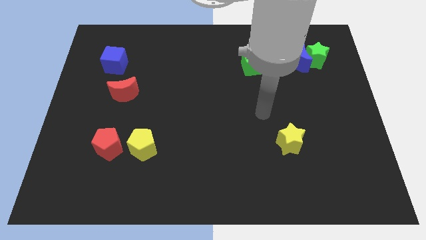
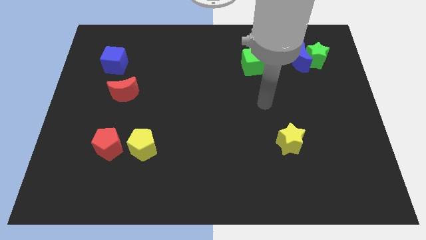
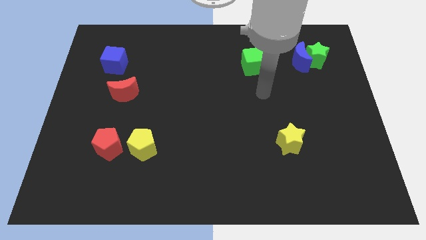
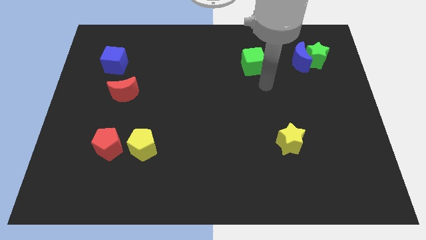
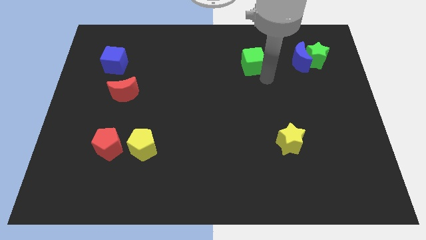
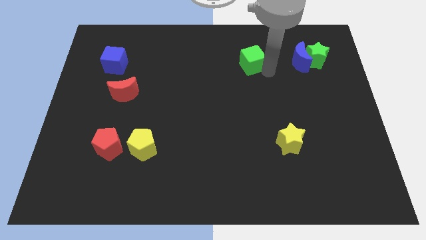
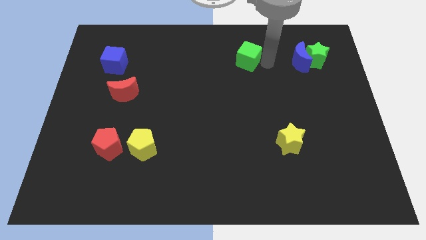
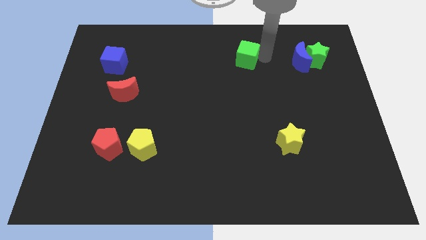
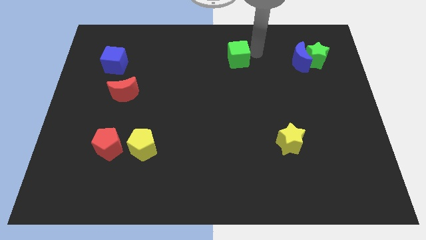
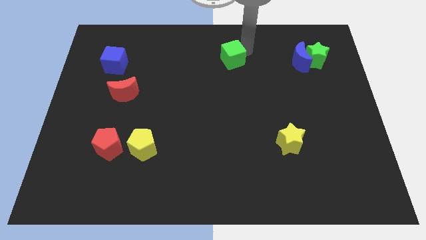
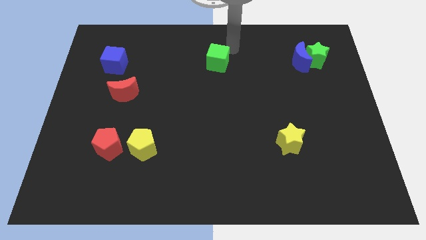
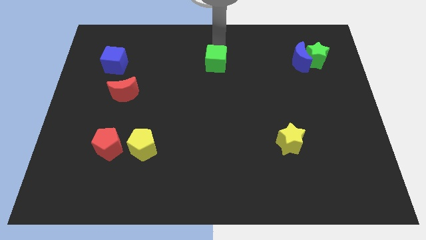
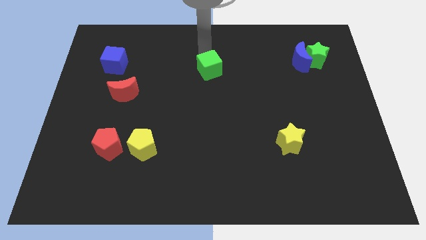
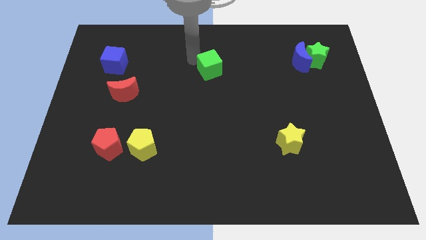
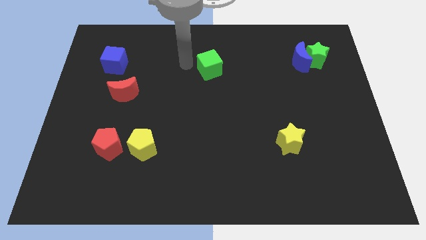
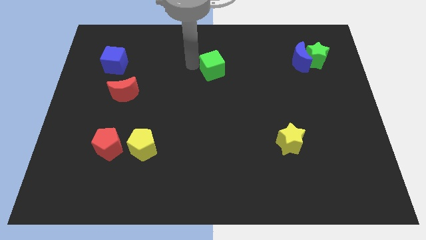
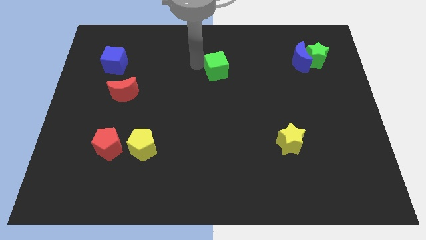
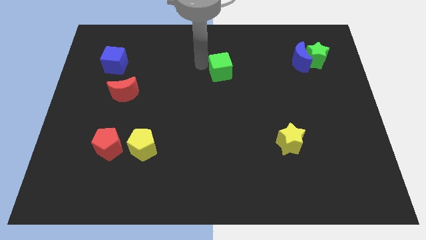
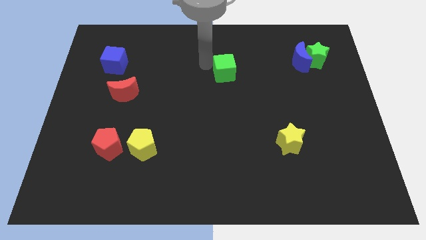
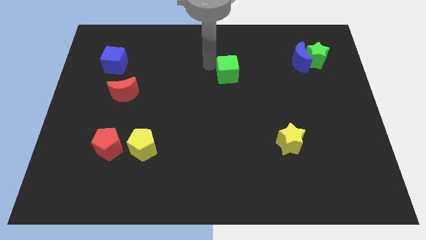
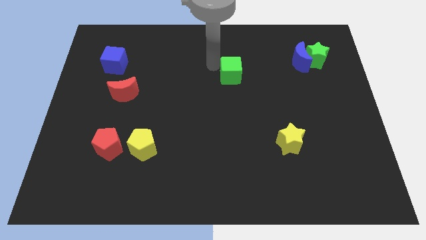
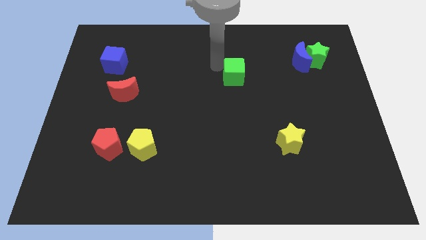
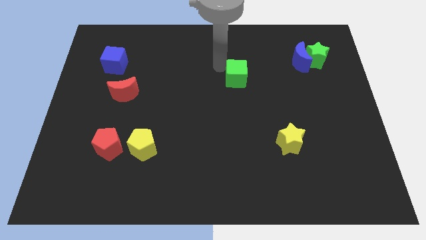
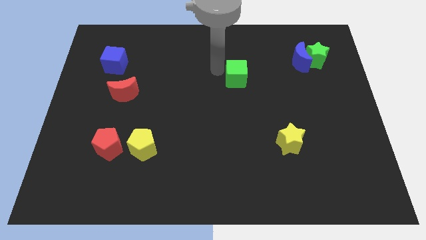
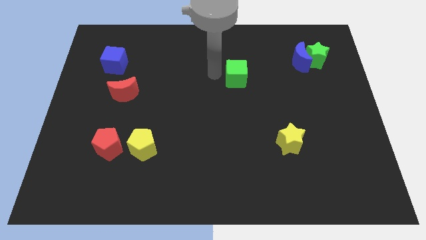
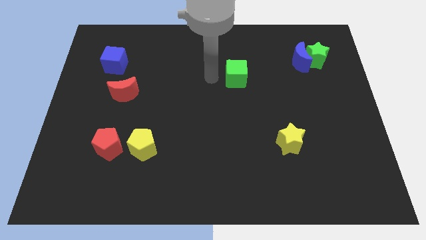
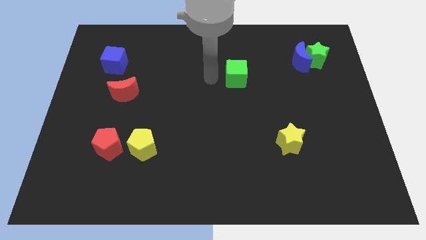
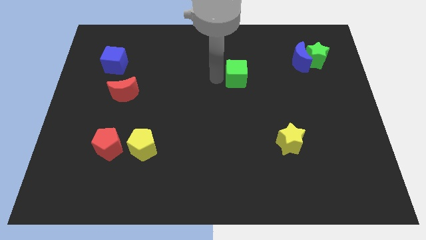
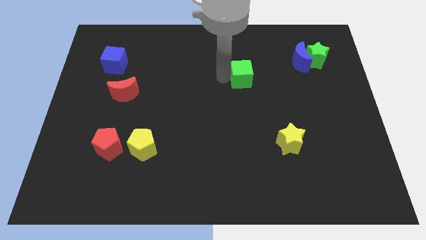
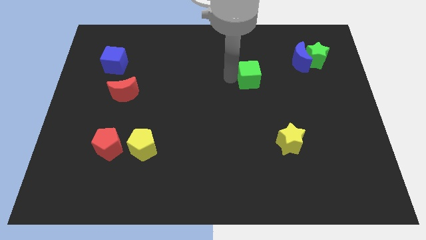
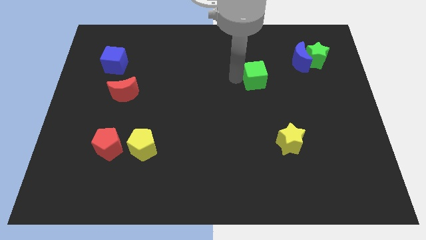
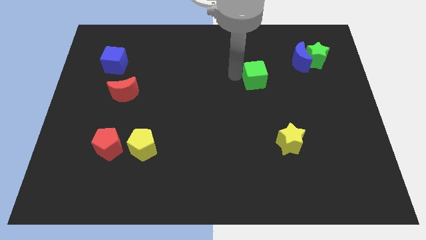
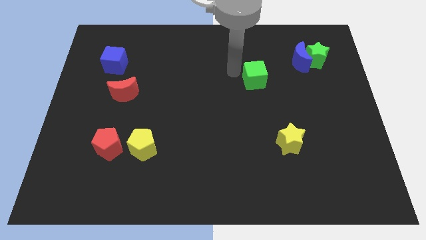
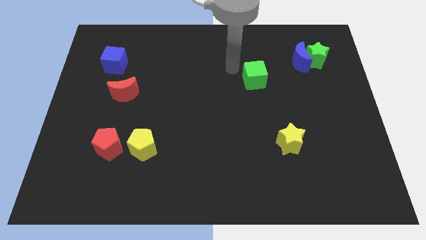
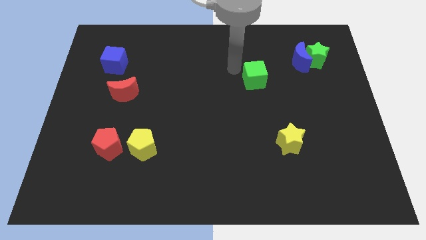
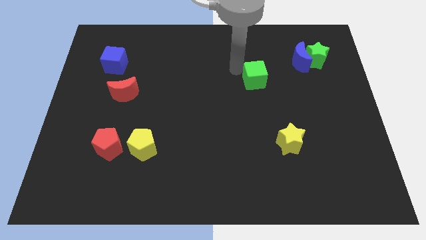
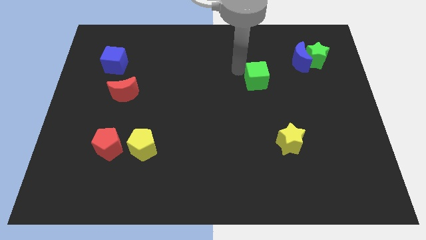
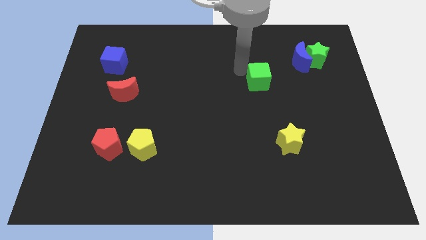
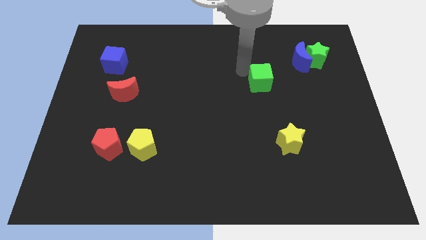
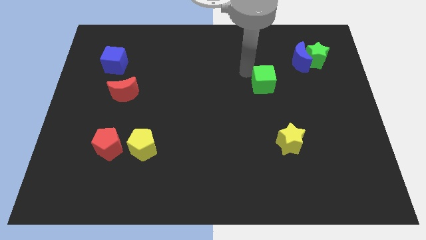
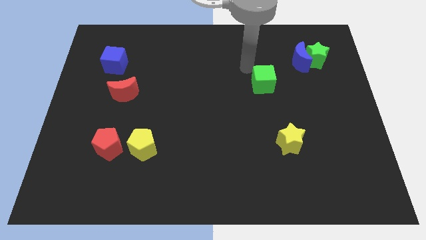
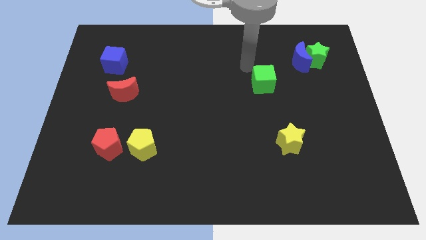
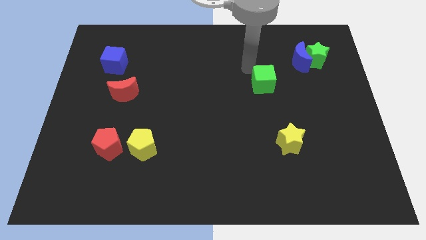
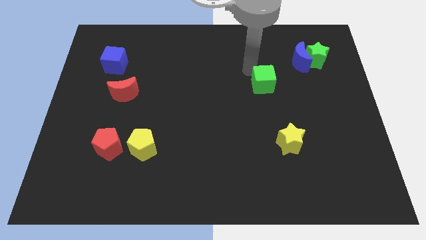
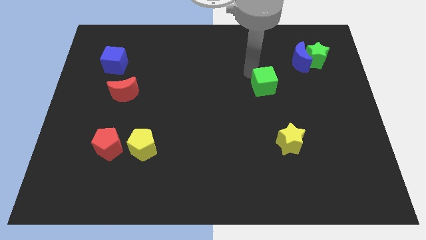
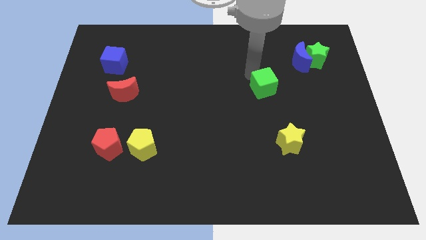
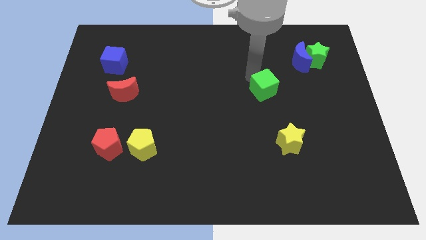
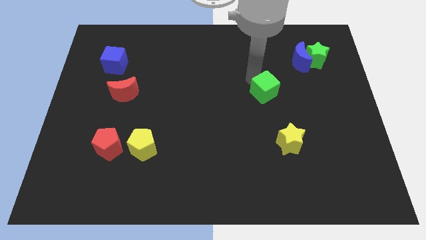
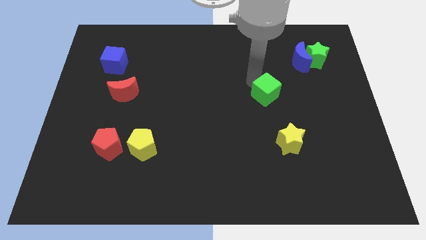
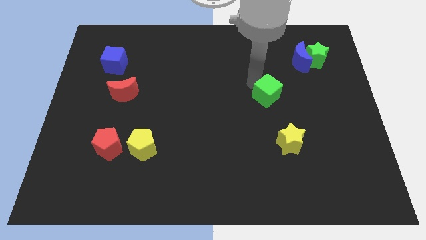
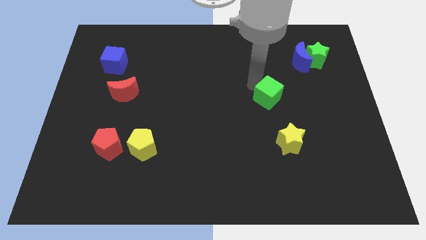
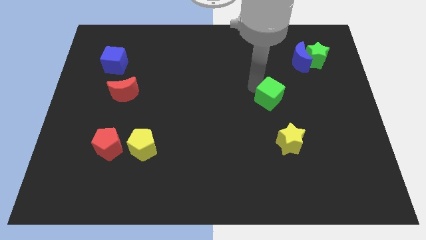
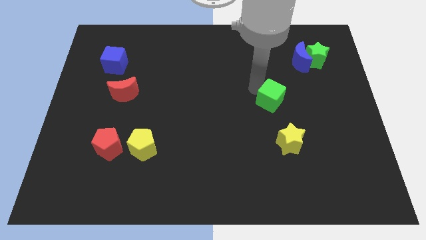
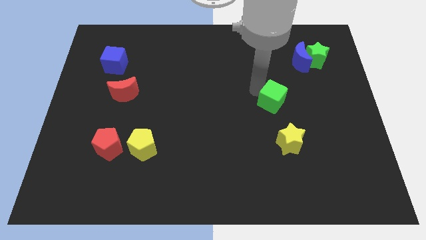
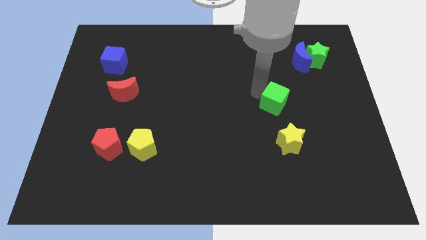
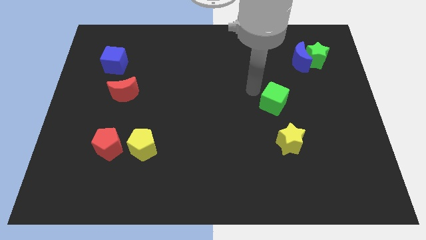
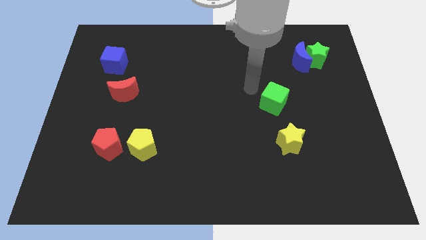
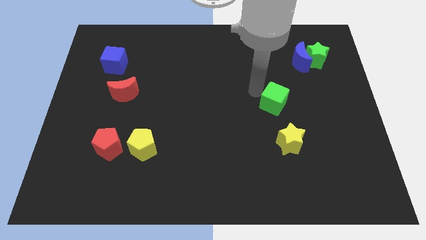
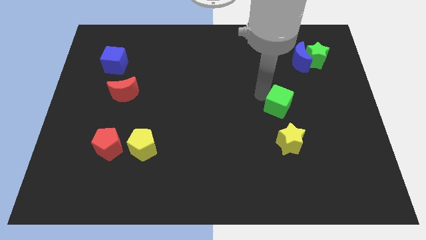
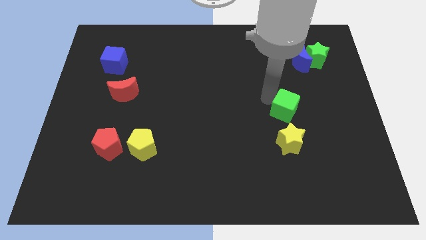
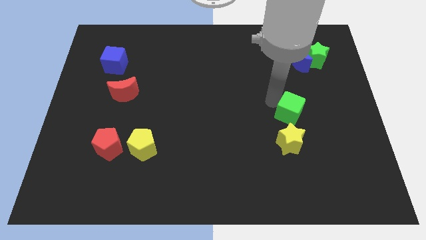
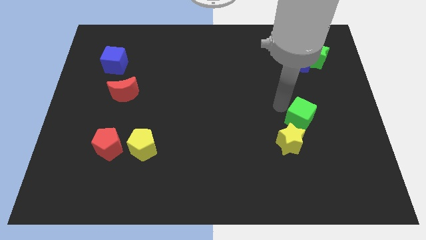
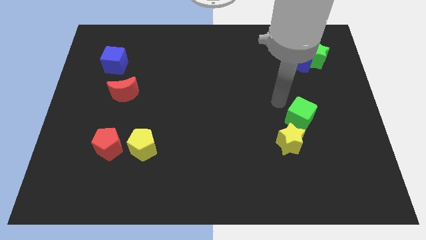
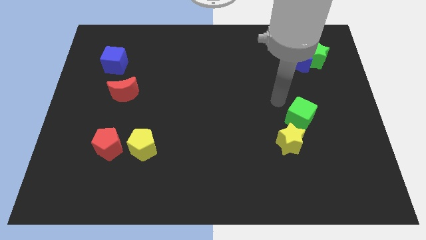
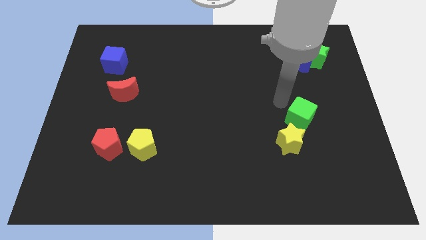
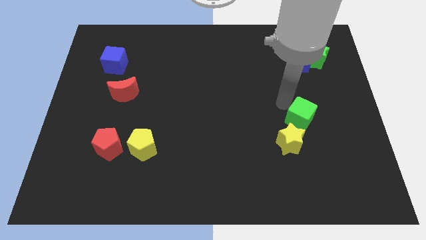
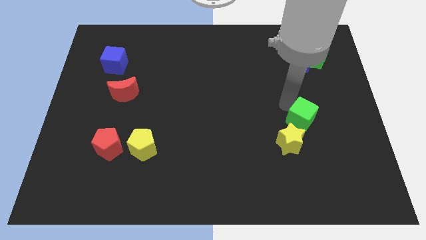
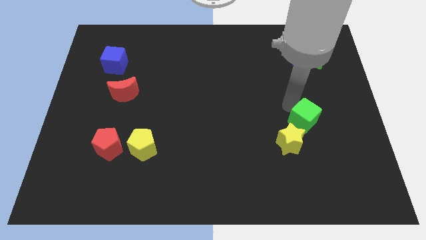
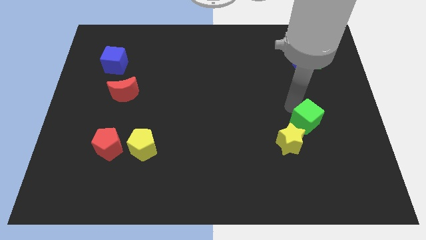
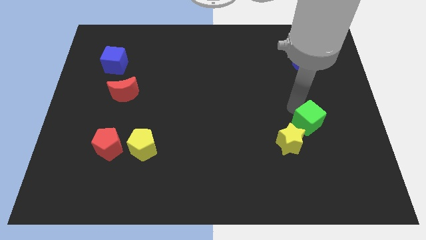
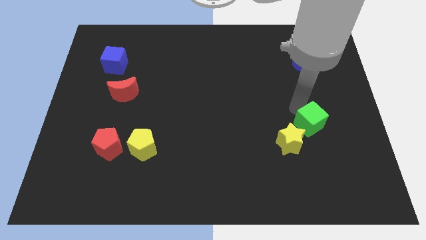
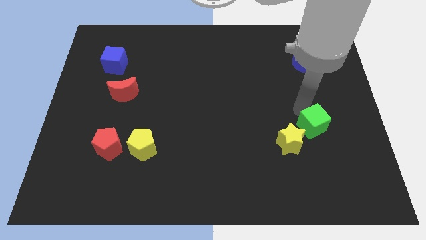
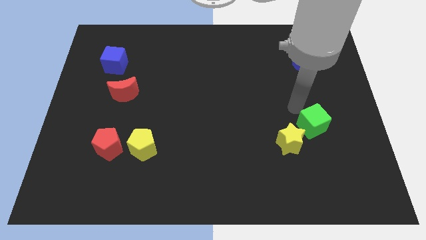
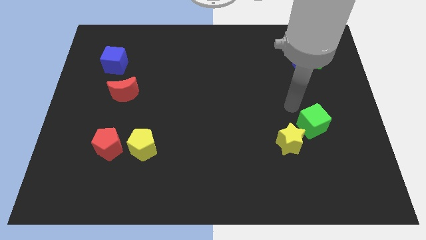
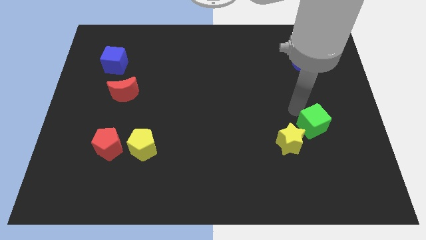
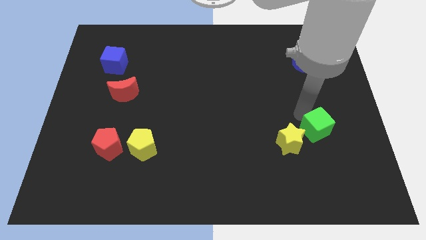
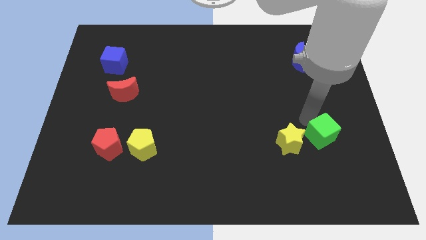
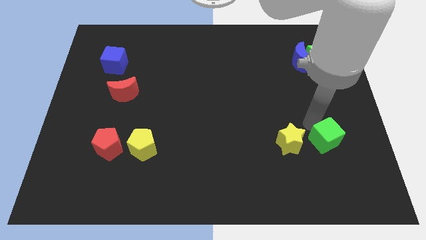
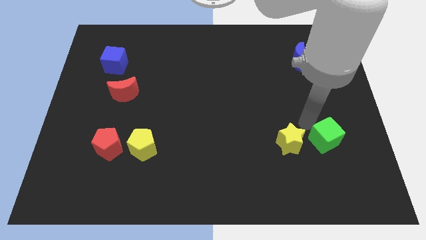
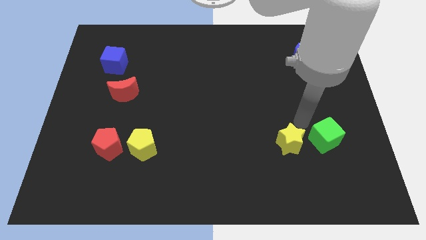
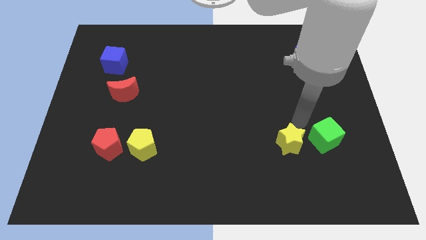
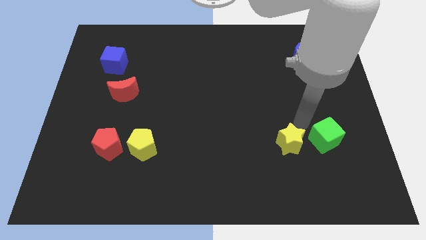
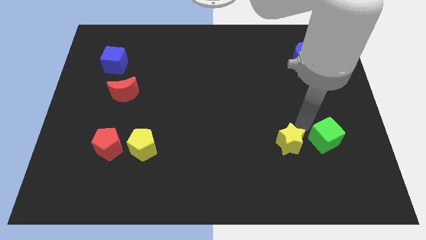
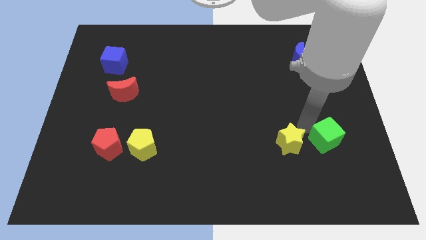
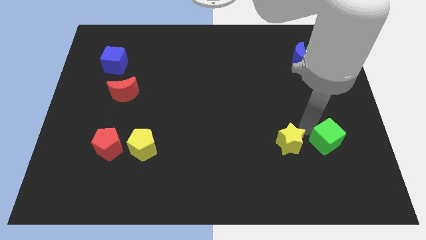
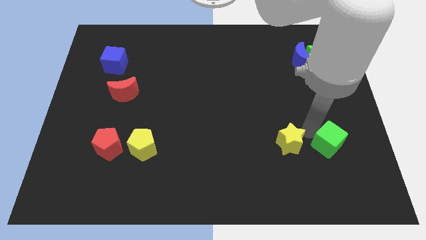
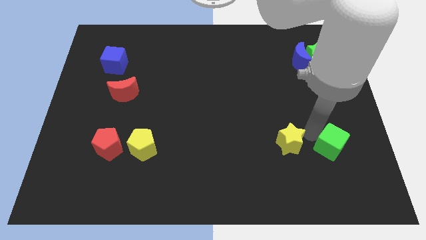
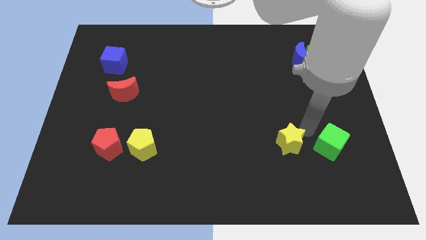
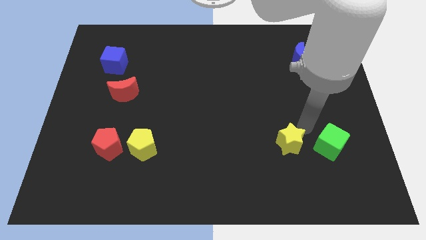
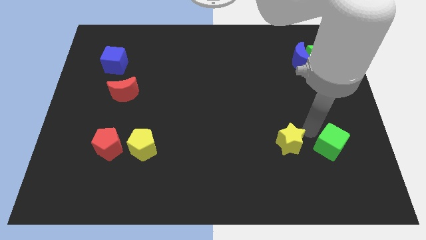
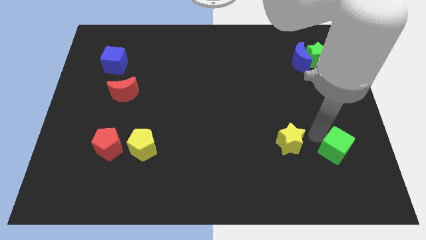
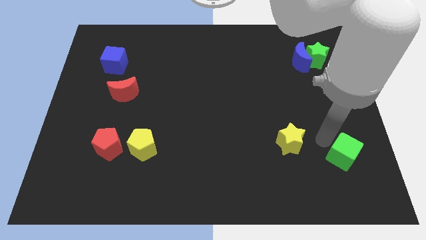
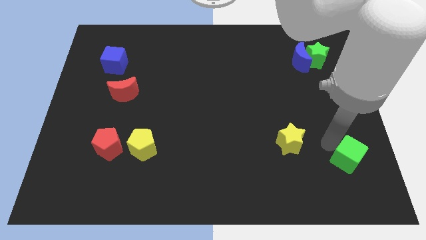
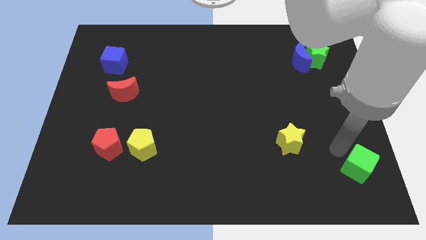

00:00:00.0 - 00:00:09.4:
put the green cube to the bottom right corner
